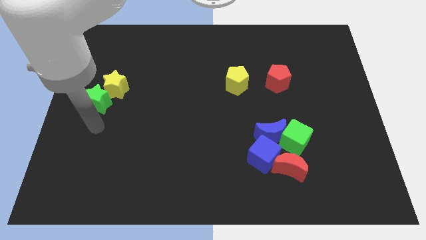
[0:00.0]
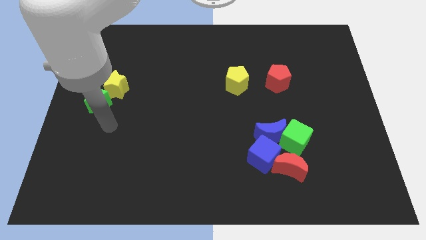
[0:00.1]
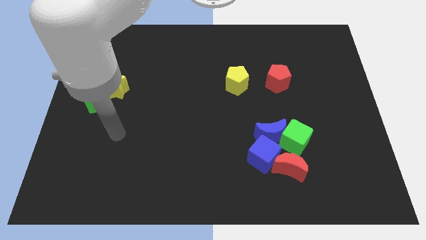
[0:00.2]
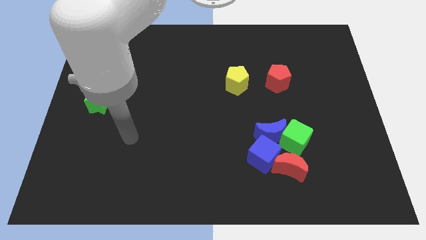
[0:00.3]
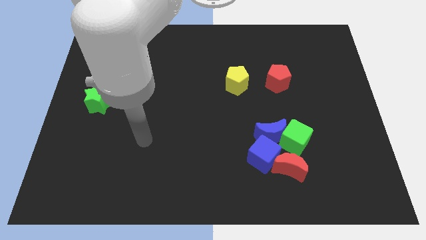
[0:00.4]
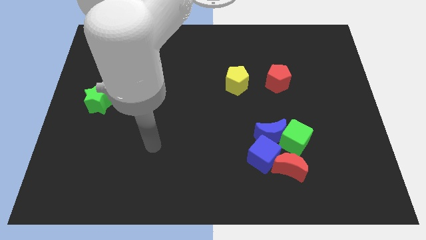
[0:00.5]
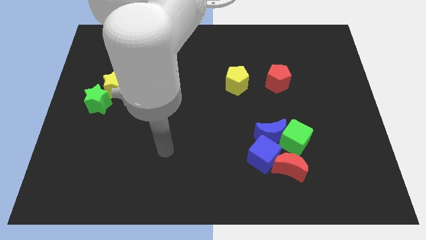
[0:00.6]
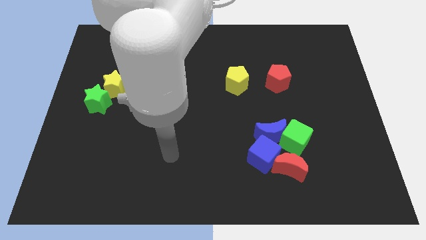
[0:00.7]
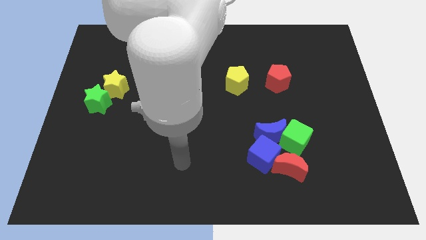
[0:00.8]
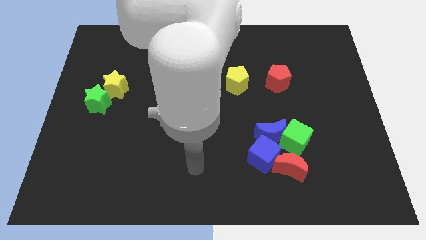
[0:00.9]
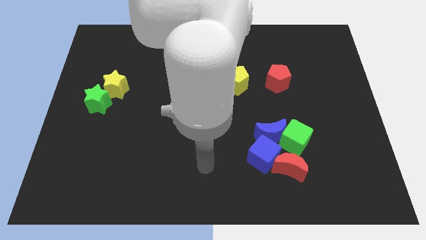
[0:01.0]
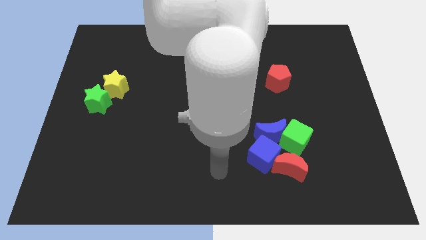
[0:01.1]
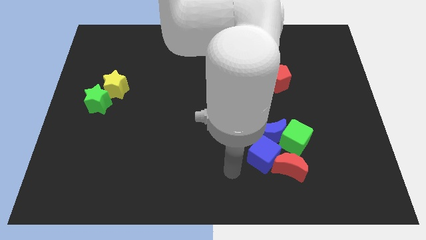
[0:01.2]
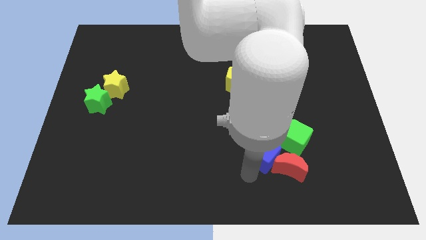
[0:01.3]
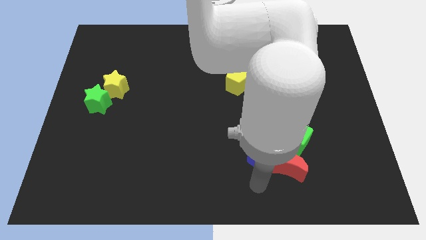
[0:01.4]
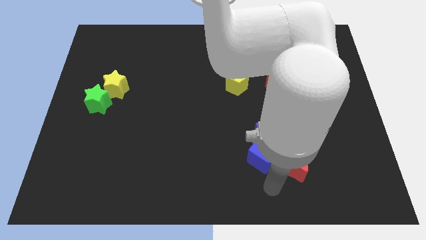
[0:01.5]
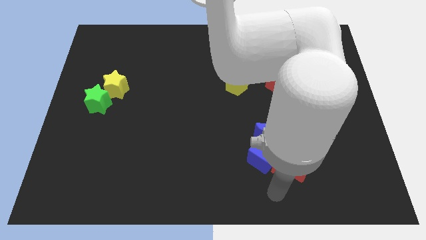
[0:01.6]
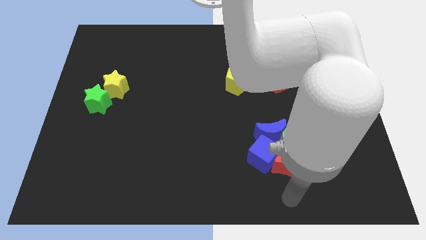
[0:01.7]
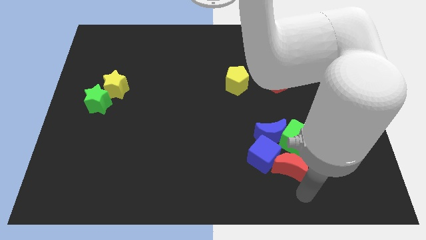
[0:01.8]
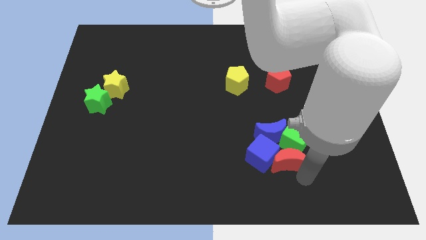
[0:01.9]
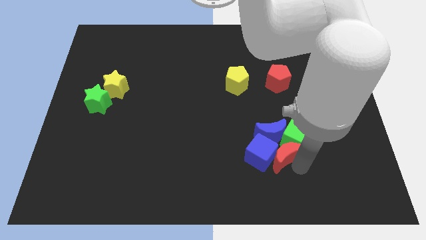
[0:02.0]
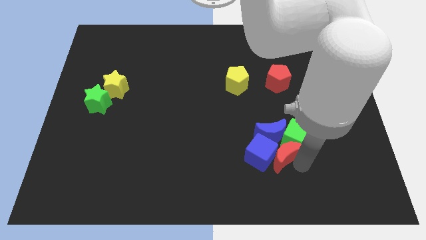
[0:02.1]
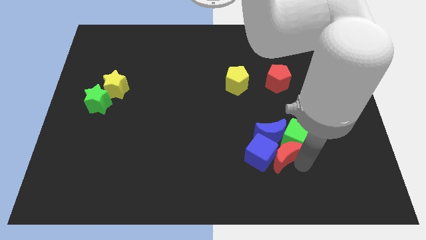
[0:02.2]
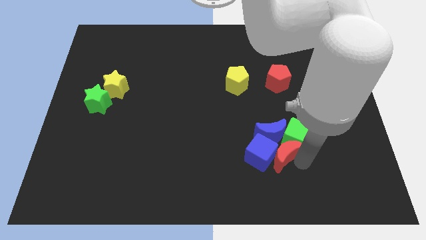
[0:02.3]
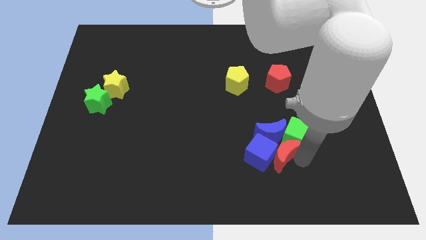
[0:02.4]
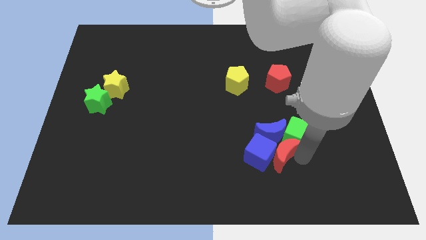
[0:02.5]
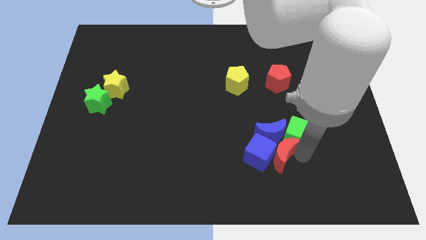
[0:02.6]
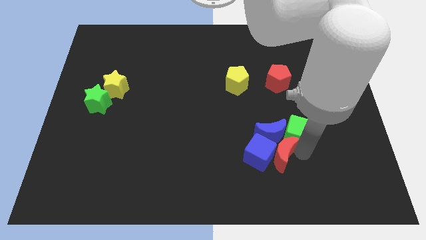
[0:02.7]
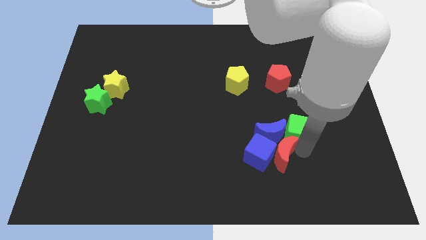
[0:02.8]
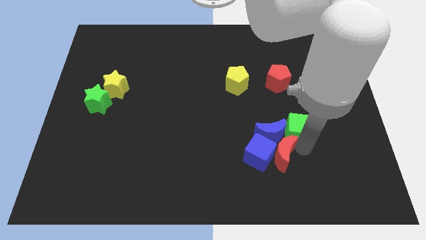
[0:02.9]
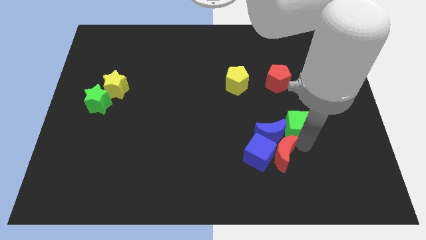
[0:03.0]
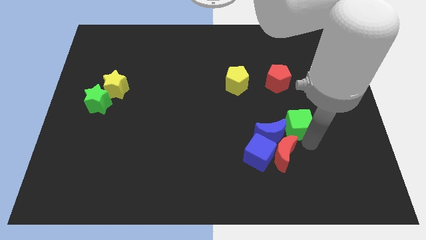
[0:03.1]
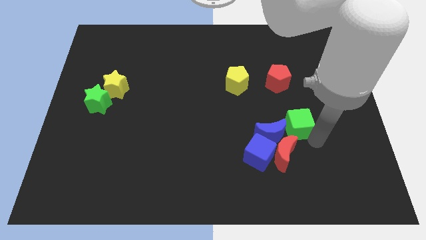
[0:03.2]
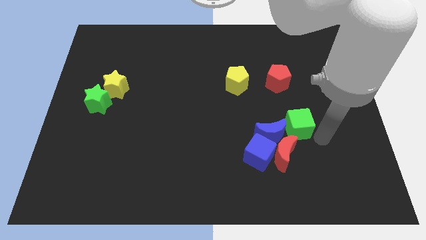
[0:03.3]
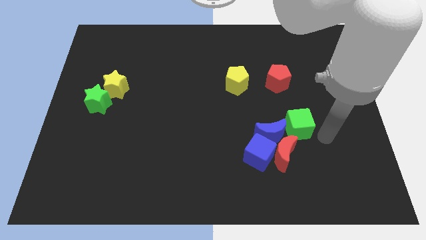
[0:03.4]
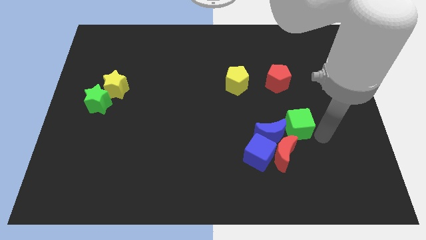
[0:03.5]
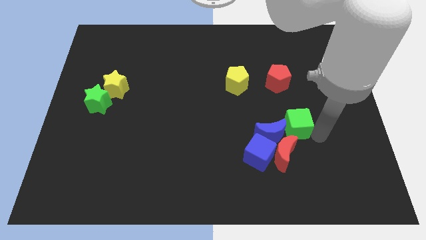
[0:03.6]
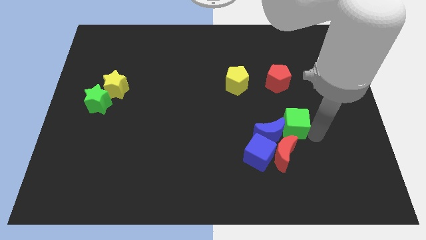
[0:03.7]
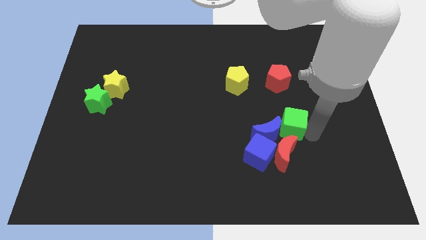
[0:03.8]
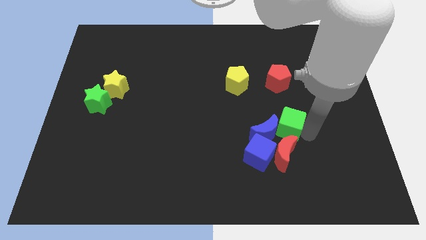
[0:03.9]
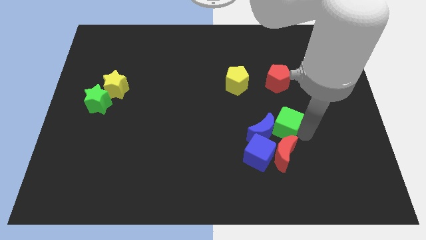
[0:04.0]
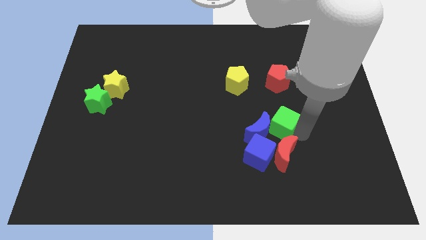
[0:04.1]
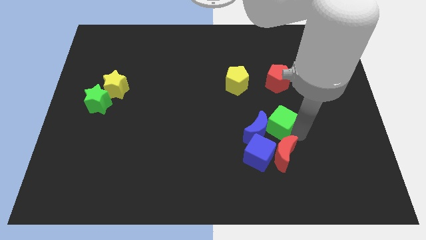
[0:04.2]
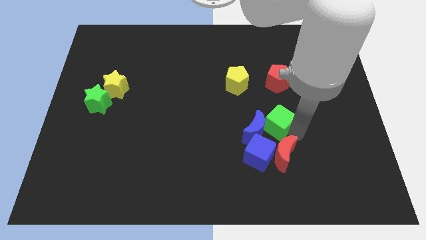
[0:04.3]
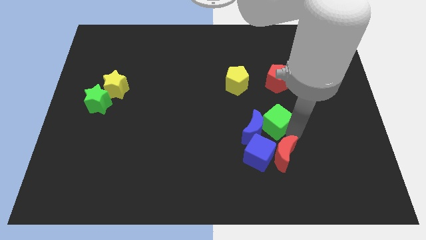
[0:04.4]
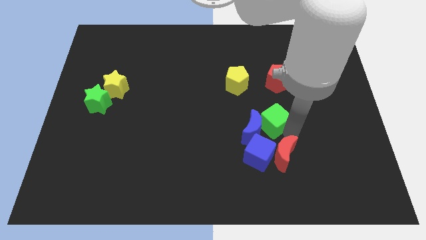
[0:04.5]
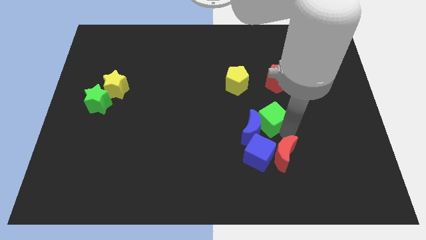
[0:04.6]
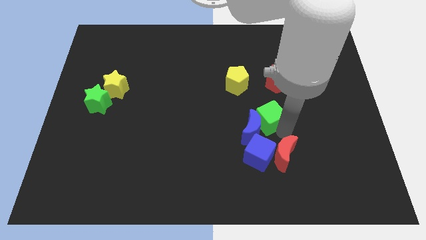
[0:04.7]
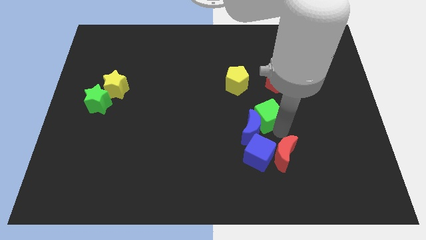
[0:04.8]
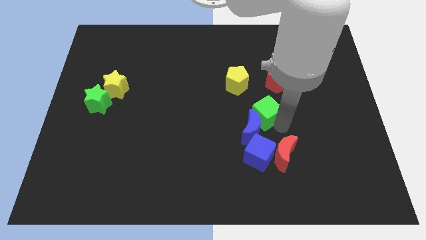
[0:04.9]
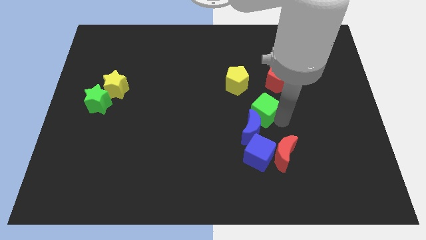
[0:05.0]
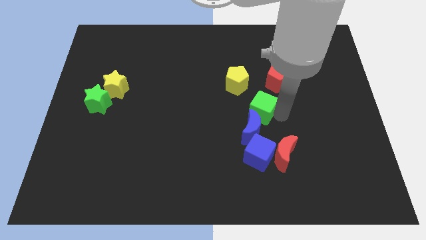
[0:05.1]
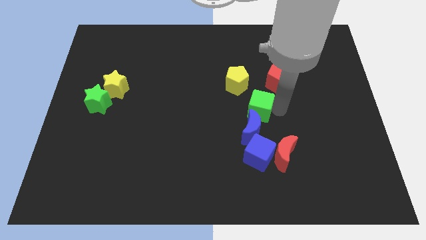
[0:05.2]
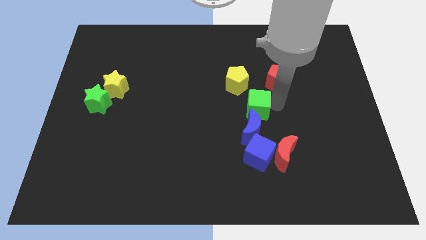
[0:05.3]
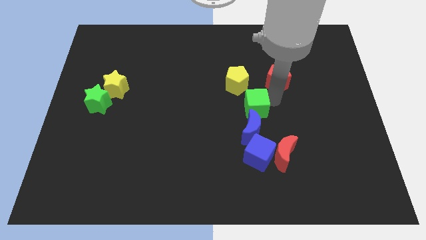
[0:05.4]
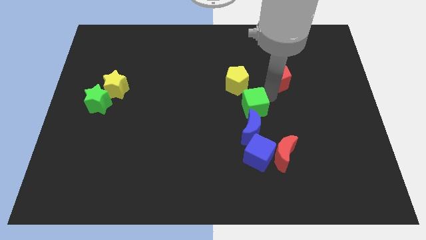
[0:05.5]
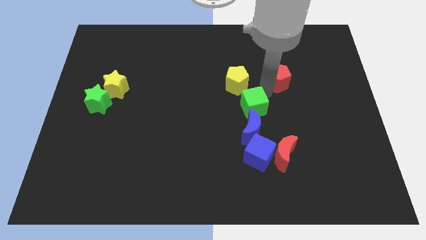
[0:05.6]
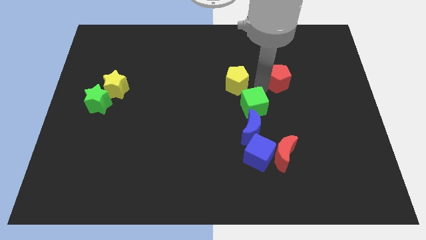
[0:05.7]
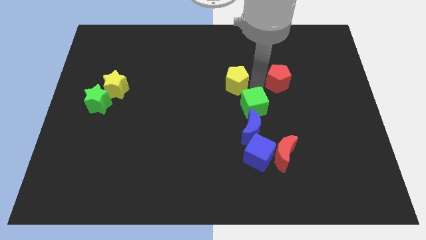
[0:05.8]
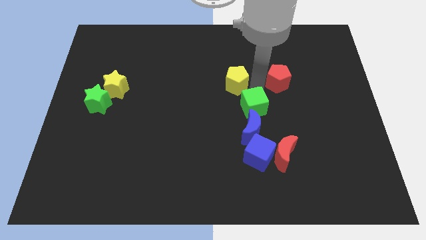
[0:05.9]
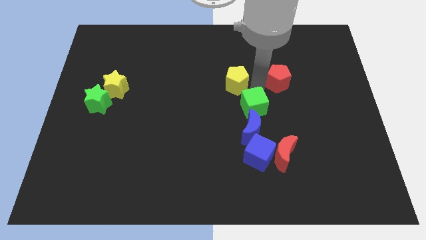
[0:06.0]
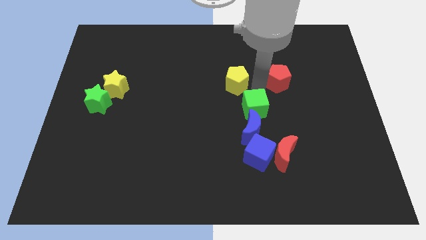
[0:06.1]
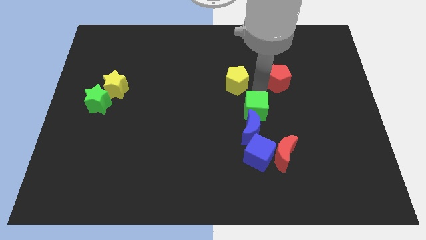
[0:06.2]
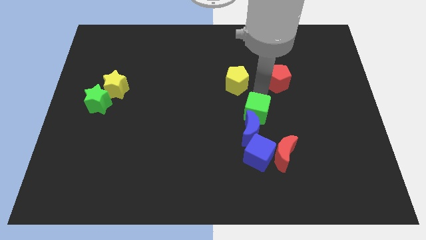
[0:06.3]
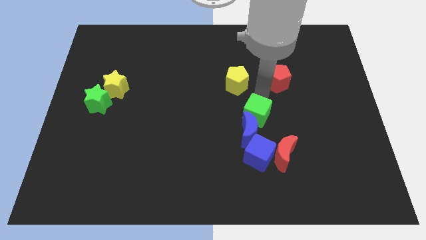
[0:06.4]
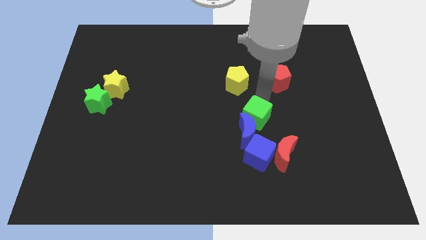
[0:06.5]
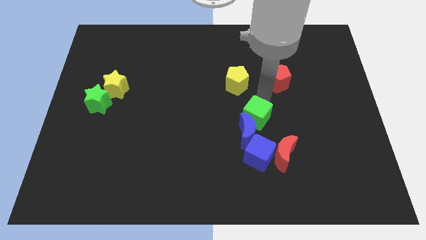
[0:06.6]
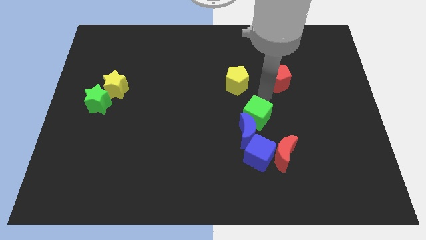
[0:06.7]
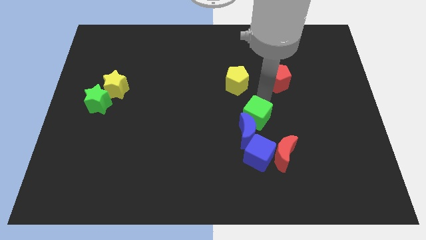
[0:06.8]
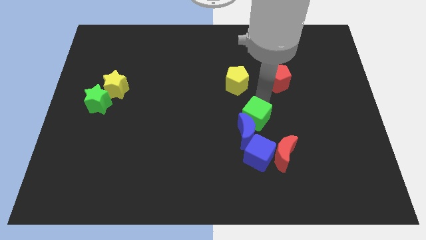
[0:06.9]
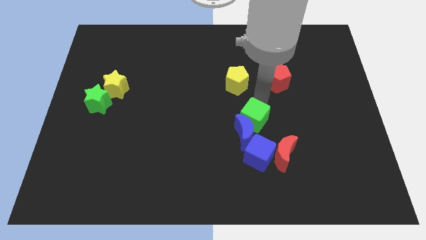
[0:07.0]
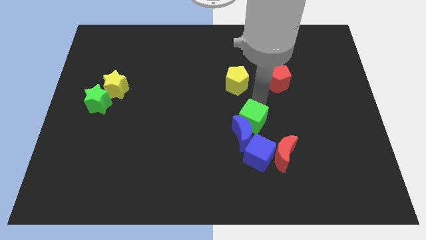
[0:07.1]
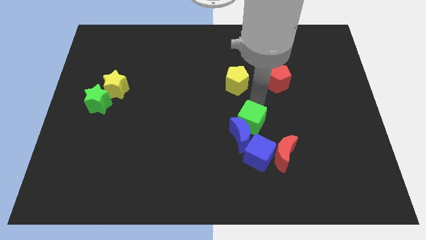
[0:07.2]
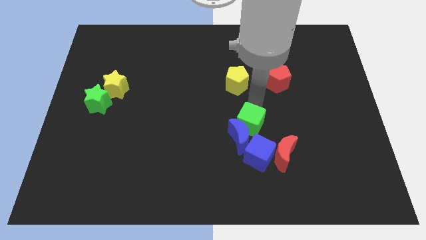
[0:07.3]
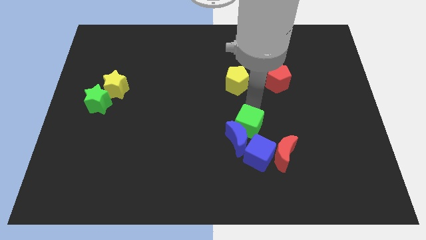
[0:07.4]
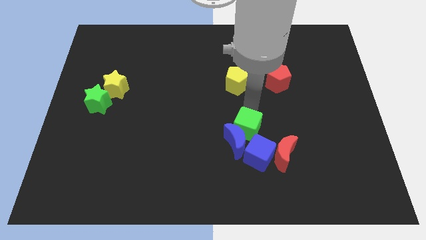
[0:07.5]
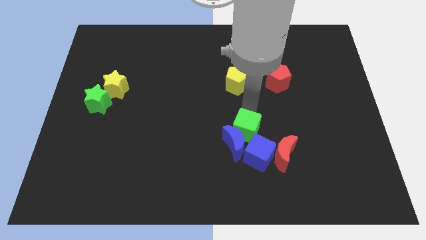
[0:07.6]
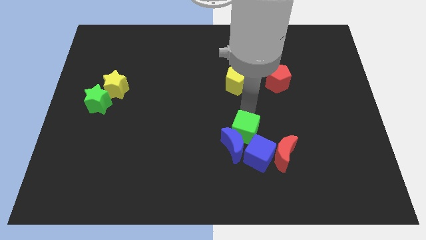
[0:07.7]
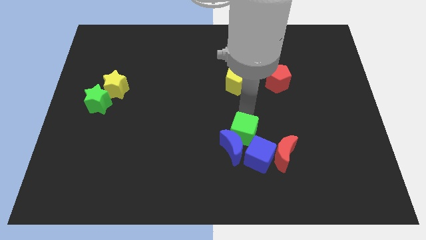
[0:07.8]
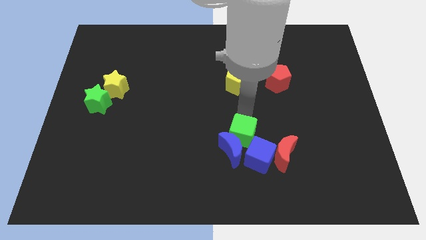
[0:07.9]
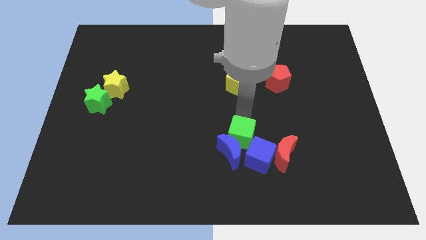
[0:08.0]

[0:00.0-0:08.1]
put the green cube to the left side of the red moon
